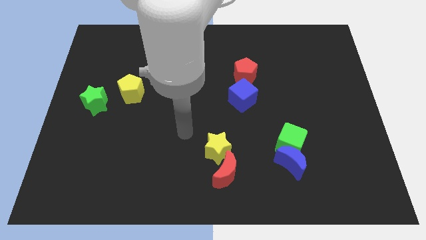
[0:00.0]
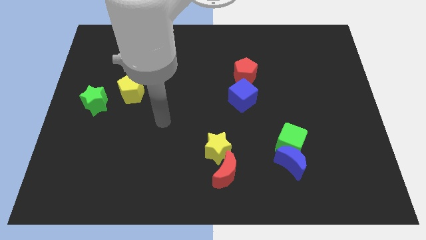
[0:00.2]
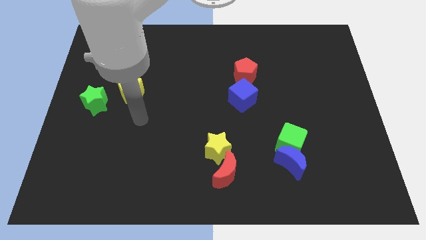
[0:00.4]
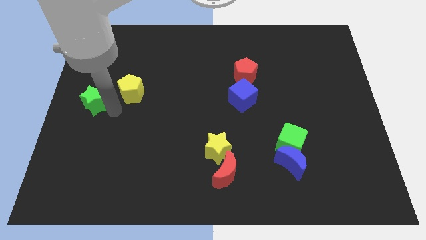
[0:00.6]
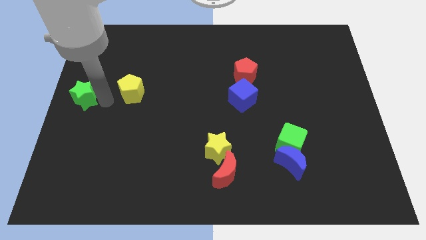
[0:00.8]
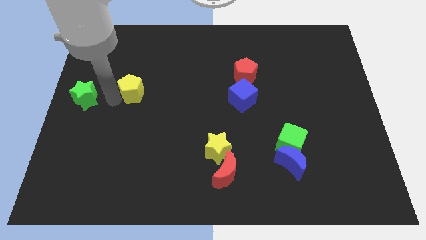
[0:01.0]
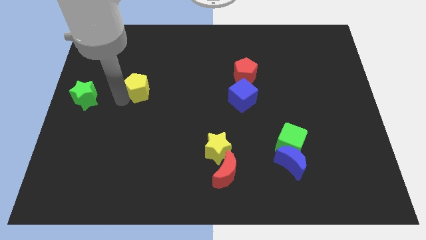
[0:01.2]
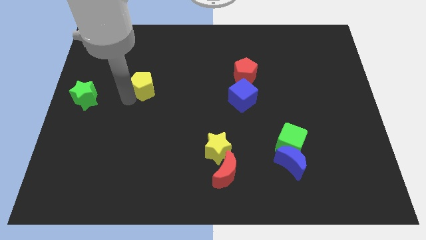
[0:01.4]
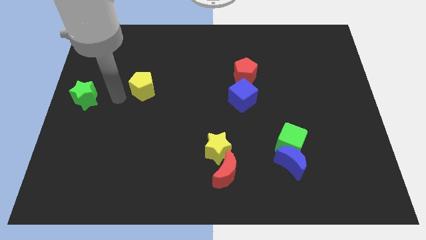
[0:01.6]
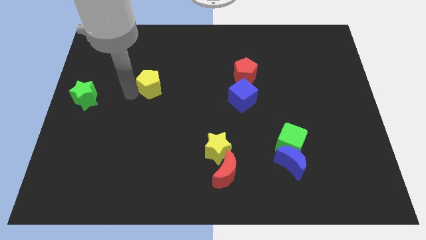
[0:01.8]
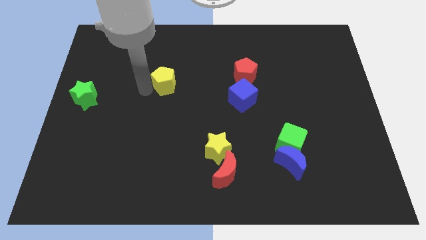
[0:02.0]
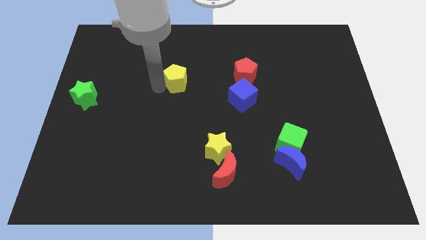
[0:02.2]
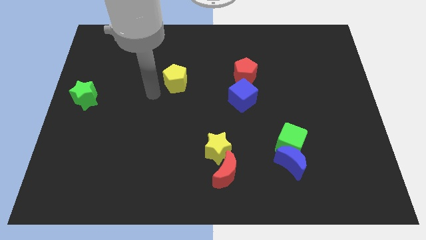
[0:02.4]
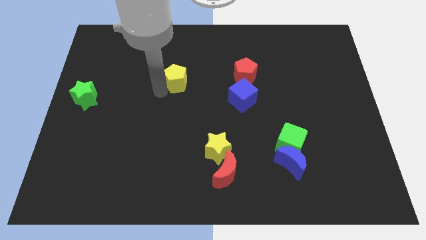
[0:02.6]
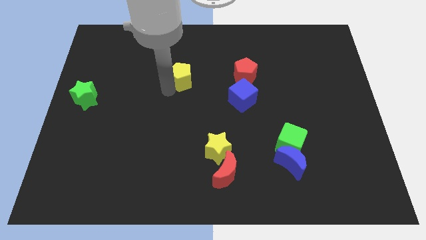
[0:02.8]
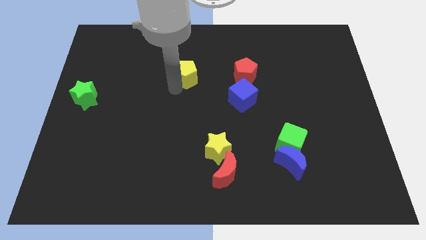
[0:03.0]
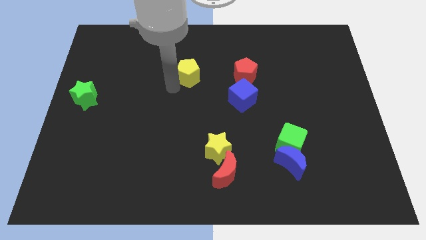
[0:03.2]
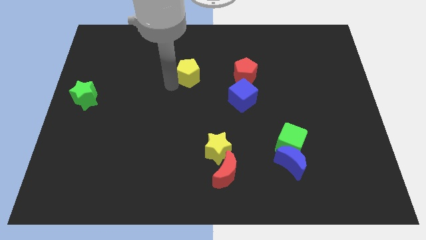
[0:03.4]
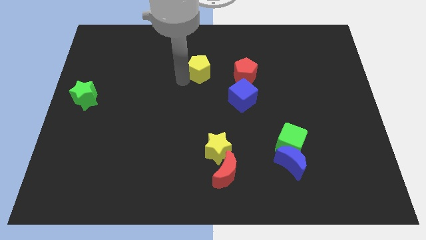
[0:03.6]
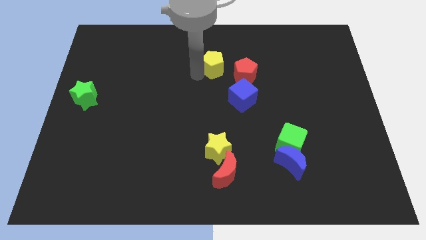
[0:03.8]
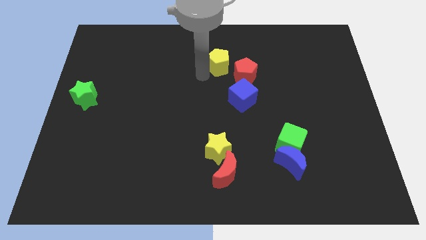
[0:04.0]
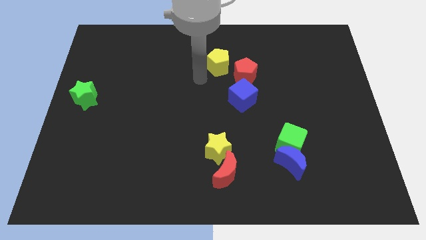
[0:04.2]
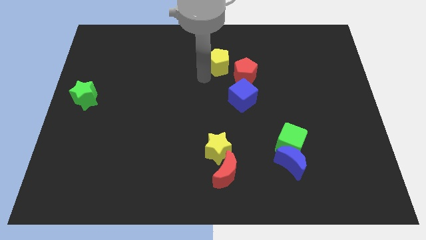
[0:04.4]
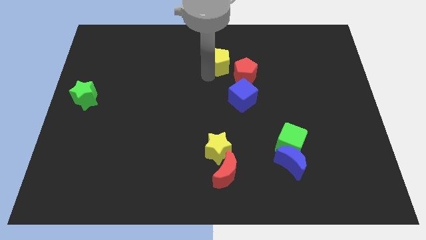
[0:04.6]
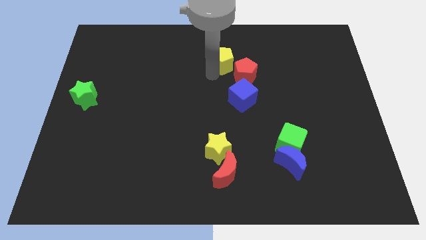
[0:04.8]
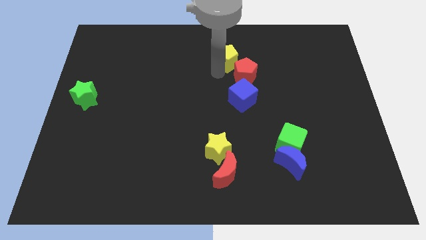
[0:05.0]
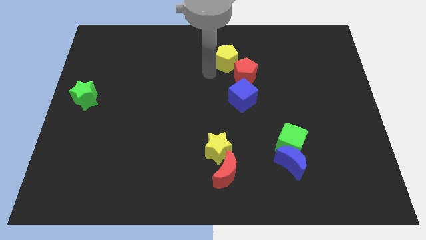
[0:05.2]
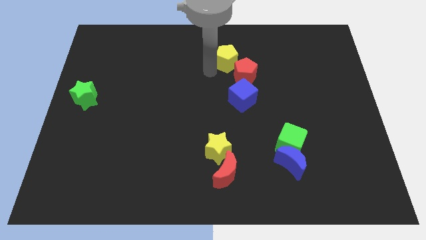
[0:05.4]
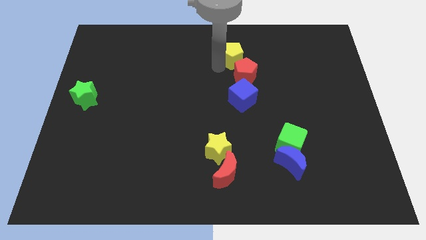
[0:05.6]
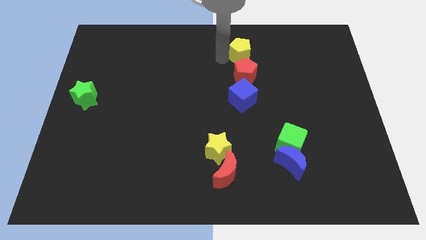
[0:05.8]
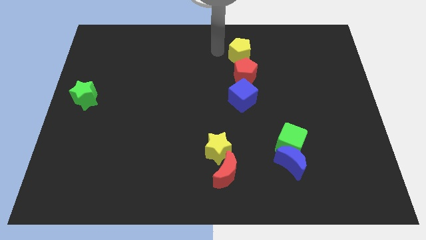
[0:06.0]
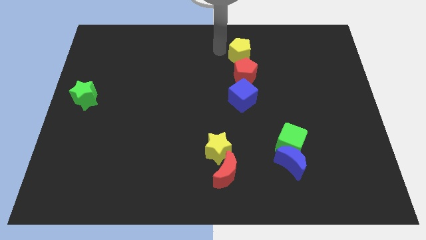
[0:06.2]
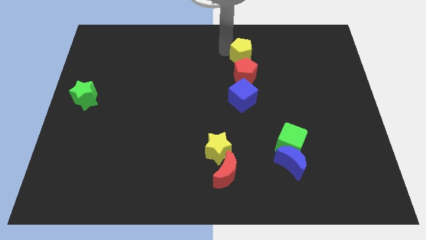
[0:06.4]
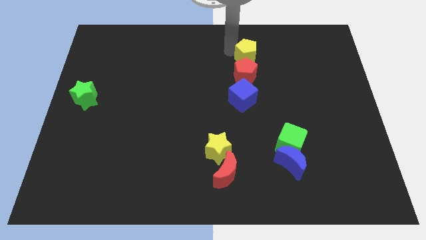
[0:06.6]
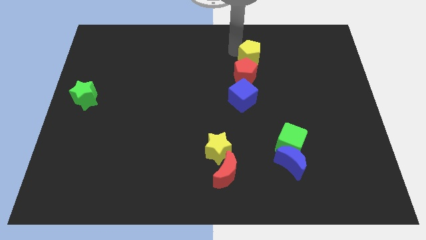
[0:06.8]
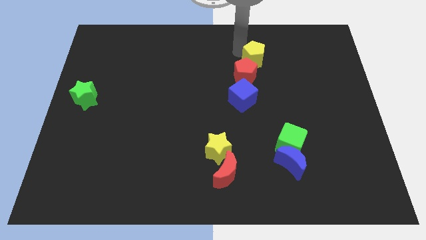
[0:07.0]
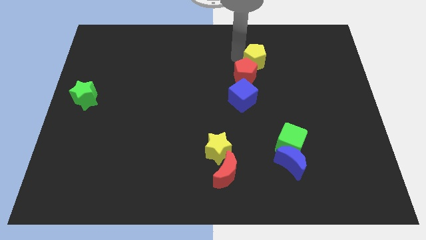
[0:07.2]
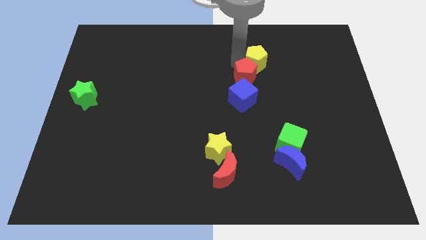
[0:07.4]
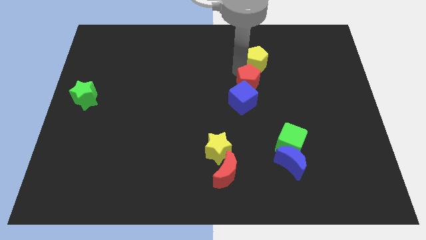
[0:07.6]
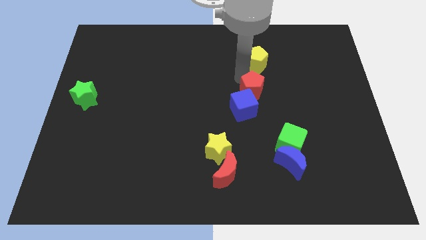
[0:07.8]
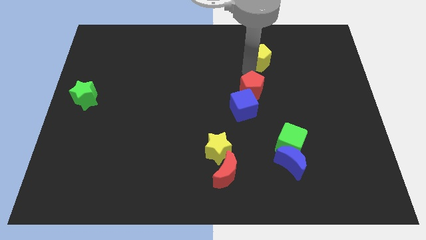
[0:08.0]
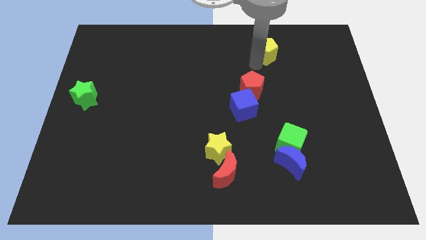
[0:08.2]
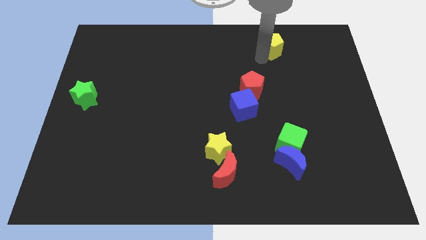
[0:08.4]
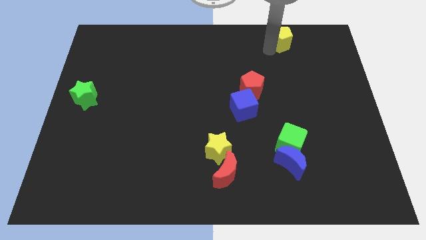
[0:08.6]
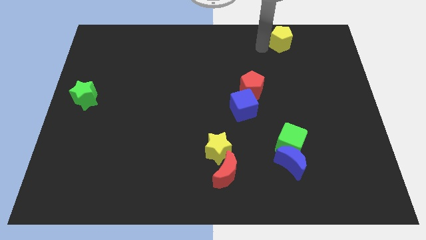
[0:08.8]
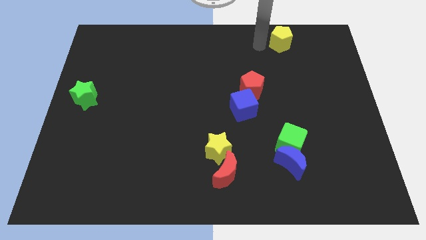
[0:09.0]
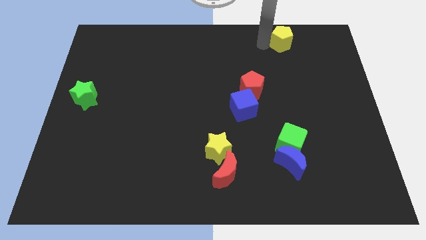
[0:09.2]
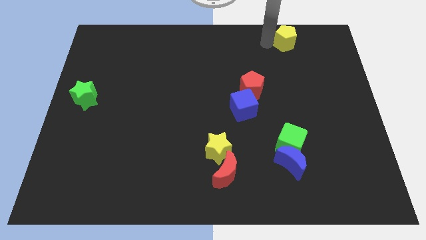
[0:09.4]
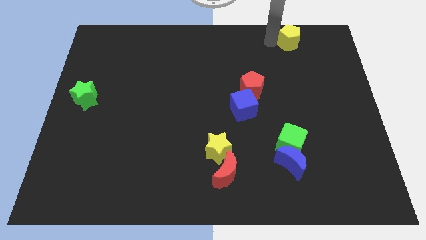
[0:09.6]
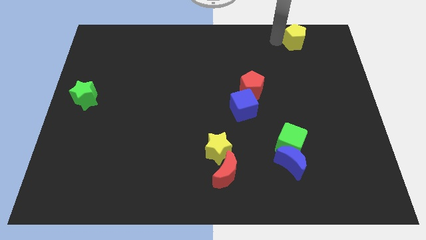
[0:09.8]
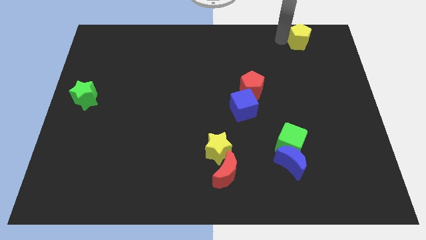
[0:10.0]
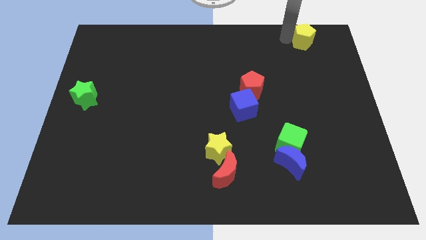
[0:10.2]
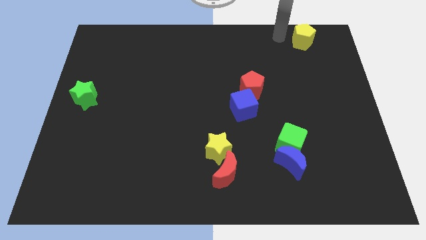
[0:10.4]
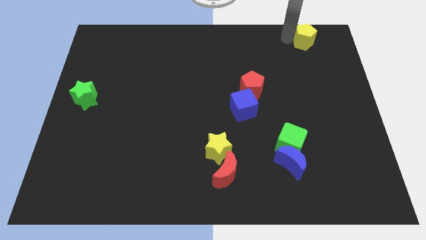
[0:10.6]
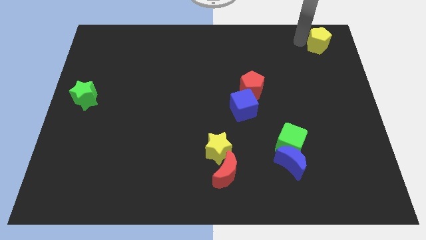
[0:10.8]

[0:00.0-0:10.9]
slide the yellow pentagon to the top right corner

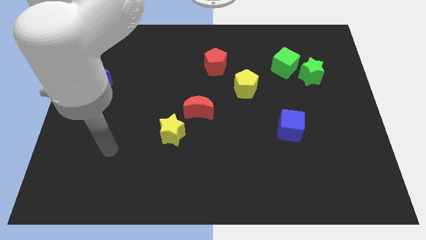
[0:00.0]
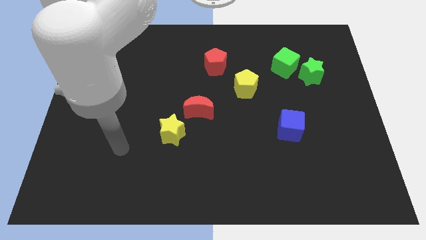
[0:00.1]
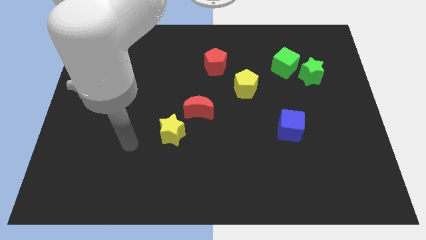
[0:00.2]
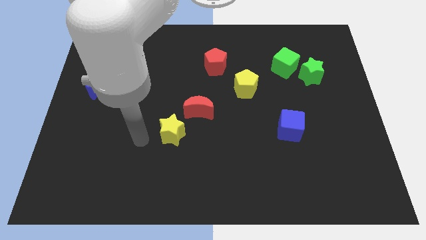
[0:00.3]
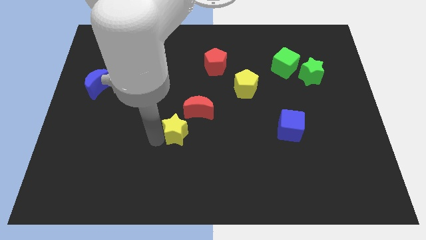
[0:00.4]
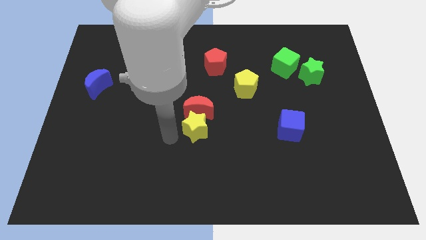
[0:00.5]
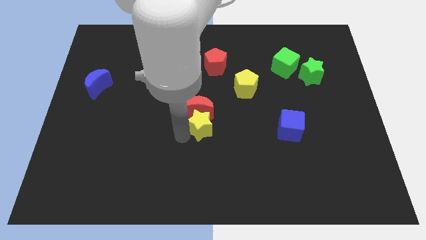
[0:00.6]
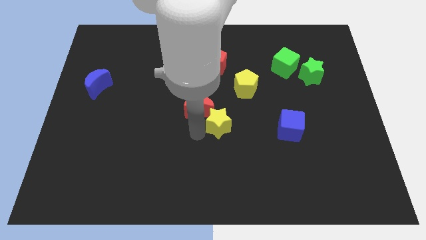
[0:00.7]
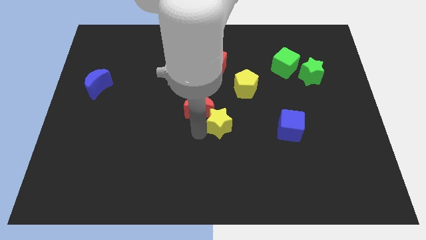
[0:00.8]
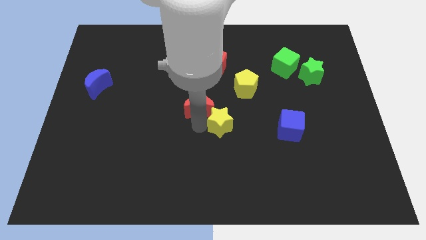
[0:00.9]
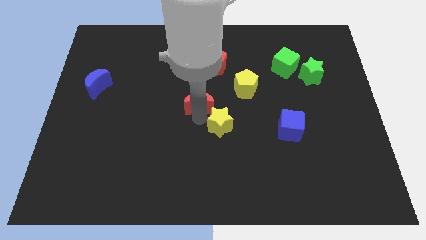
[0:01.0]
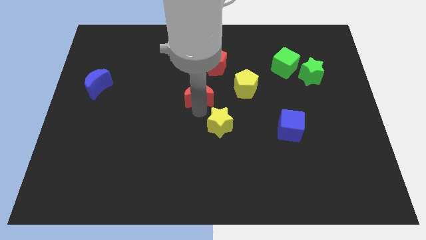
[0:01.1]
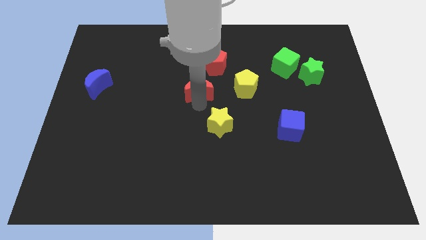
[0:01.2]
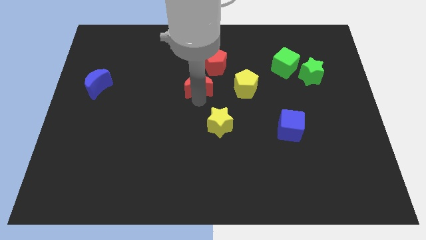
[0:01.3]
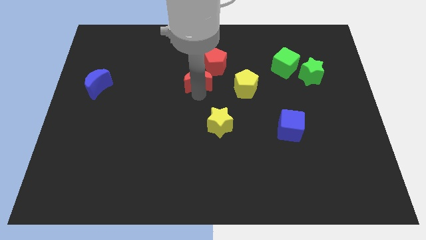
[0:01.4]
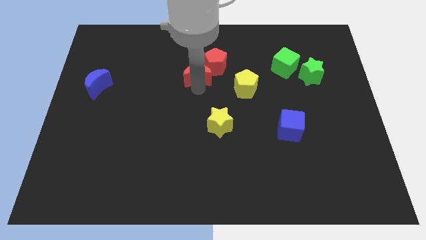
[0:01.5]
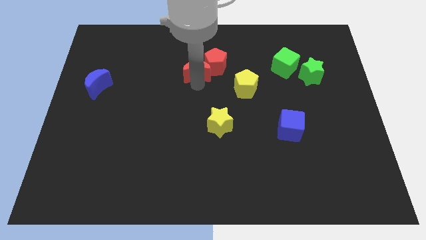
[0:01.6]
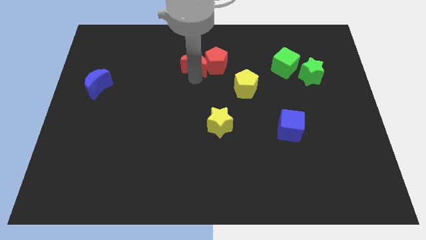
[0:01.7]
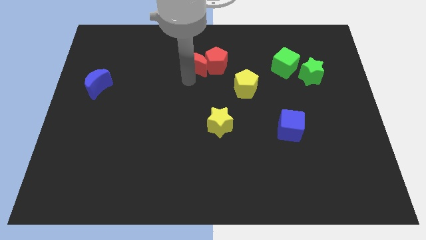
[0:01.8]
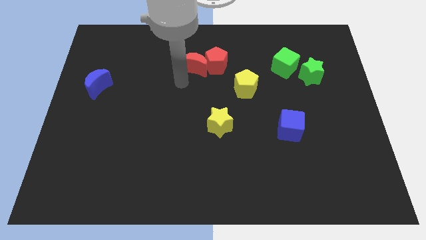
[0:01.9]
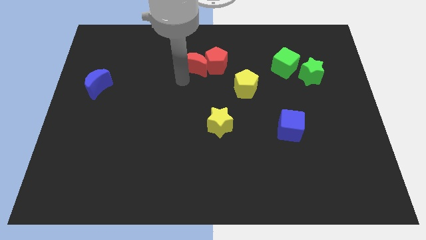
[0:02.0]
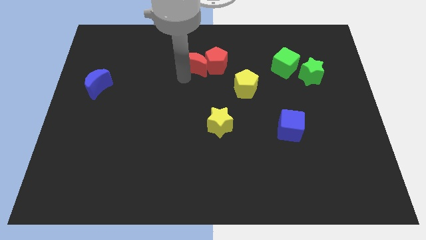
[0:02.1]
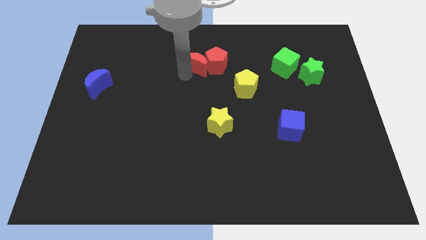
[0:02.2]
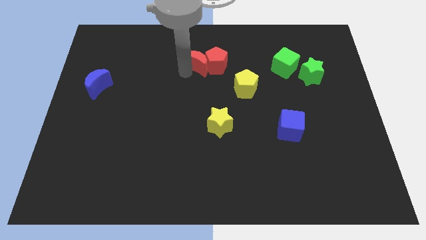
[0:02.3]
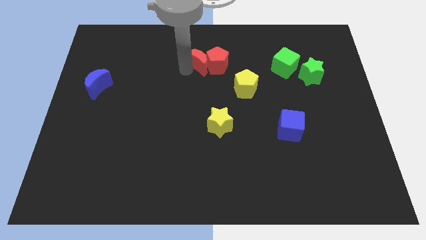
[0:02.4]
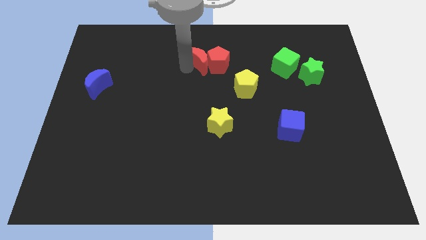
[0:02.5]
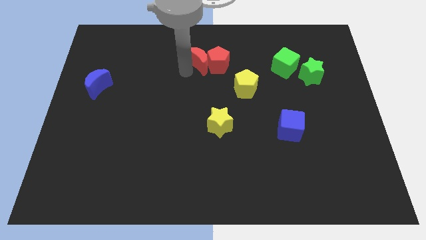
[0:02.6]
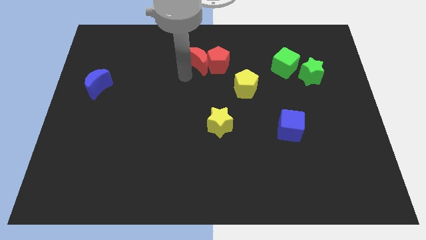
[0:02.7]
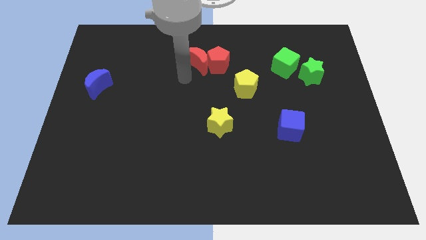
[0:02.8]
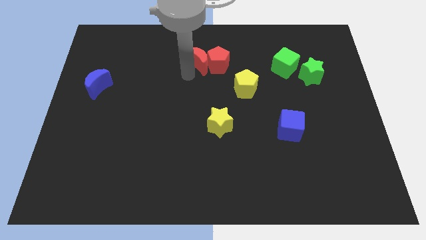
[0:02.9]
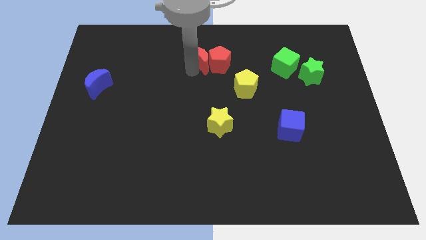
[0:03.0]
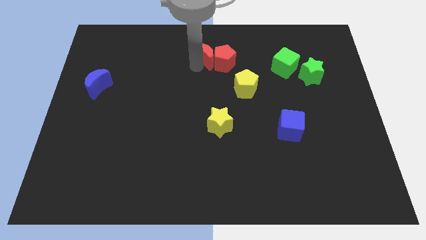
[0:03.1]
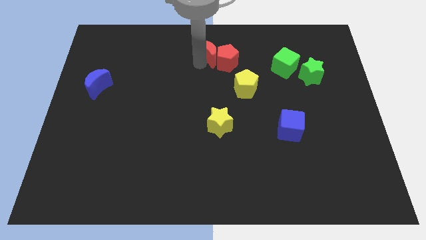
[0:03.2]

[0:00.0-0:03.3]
move the red moon to the top side
